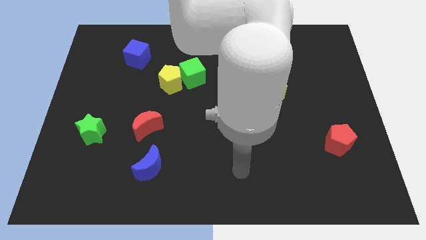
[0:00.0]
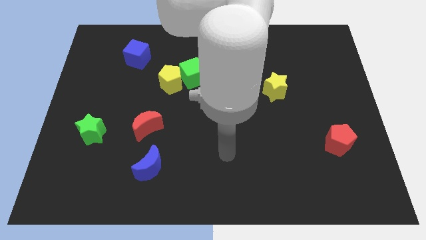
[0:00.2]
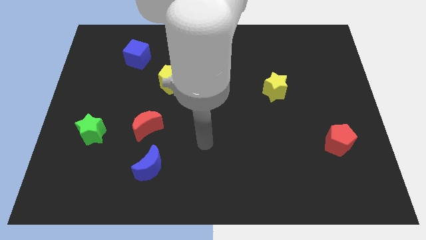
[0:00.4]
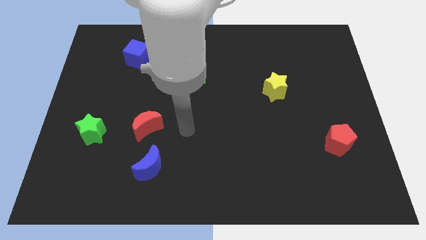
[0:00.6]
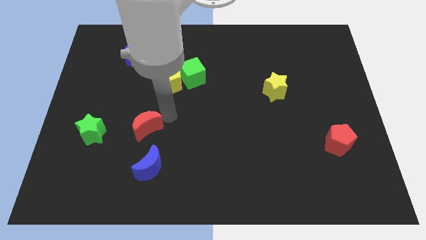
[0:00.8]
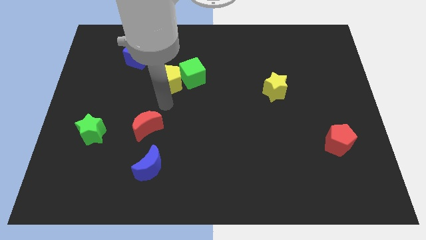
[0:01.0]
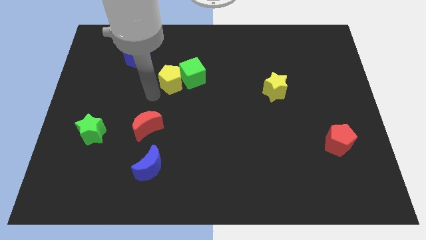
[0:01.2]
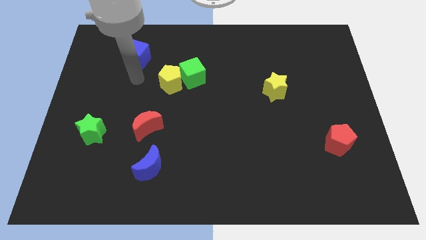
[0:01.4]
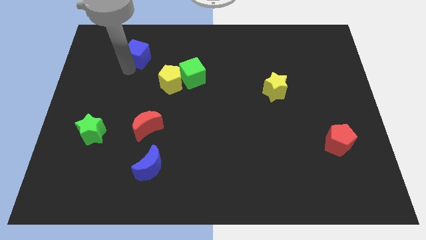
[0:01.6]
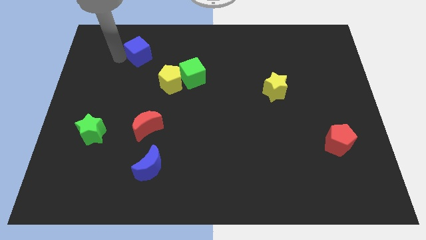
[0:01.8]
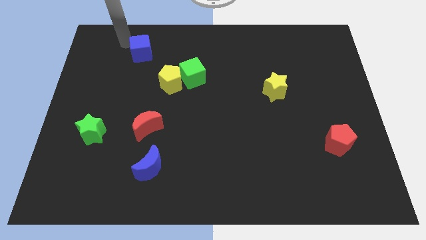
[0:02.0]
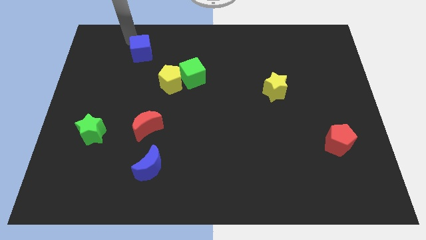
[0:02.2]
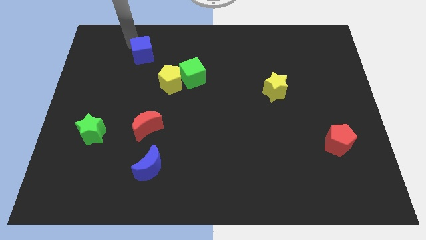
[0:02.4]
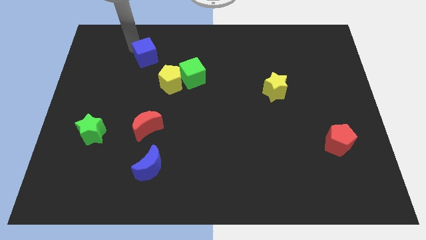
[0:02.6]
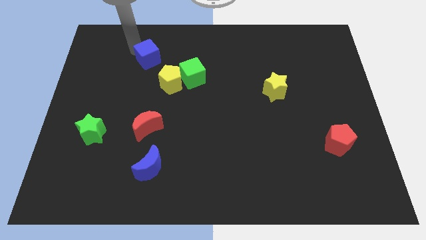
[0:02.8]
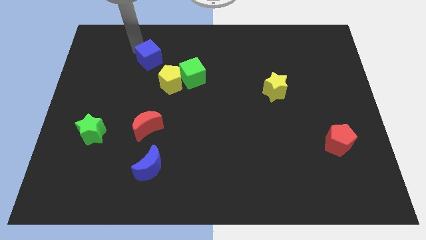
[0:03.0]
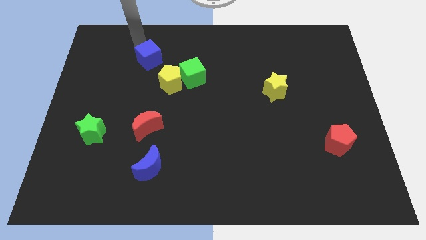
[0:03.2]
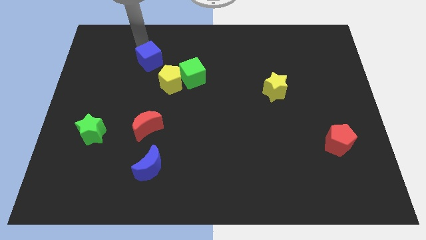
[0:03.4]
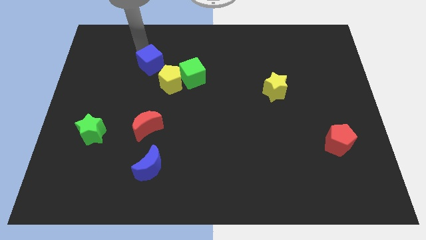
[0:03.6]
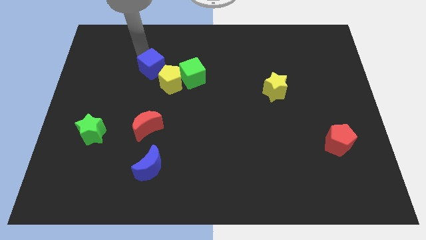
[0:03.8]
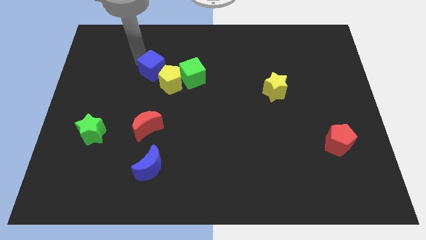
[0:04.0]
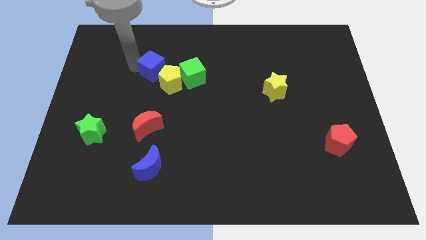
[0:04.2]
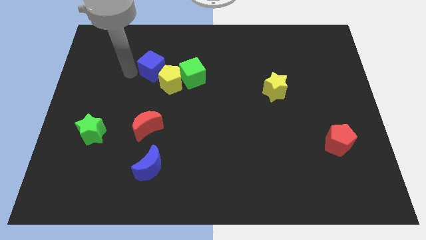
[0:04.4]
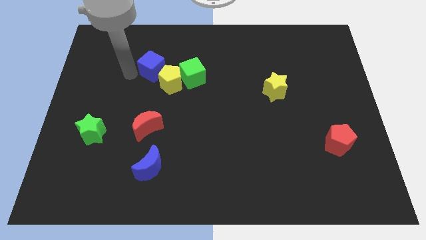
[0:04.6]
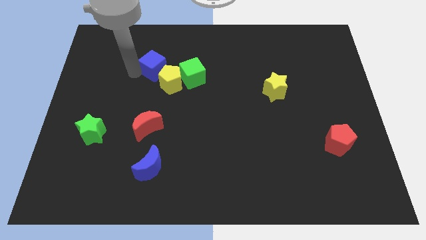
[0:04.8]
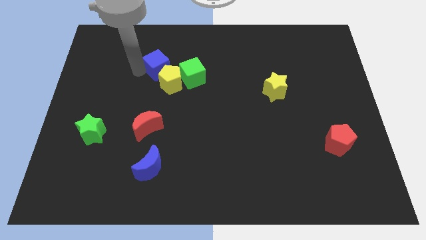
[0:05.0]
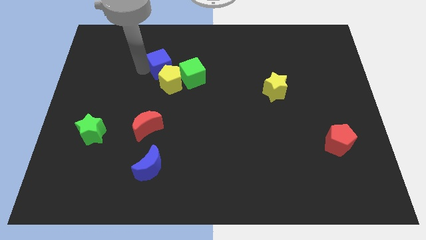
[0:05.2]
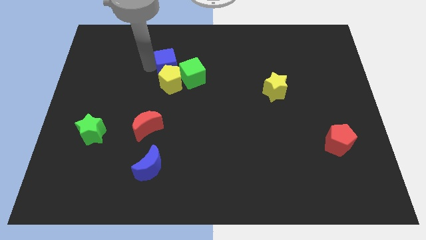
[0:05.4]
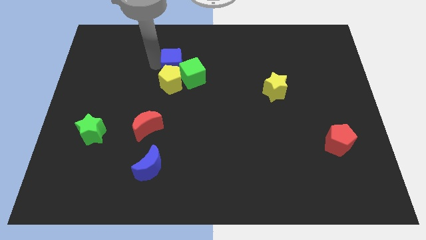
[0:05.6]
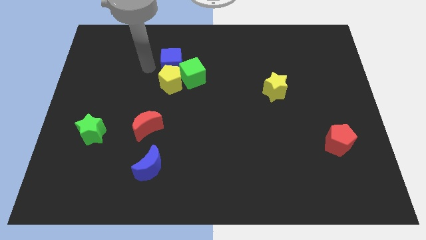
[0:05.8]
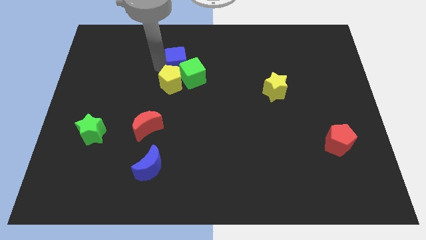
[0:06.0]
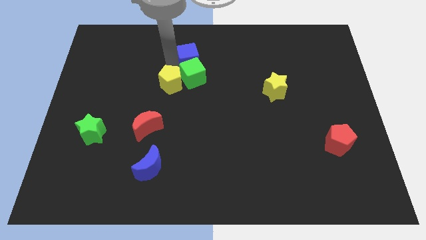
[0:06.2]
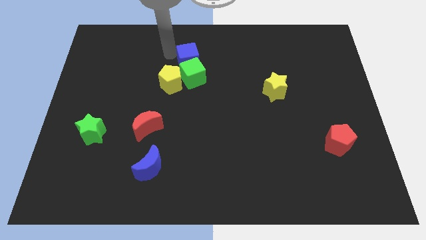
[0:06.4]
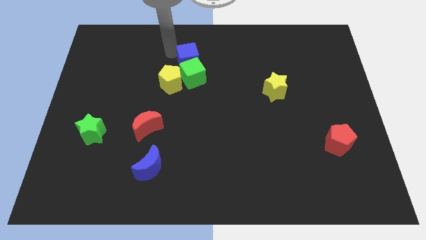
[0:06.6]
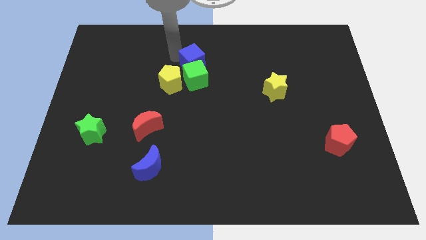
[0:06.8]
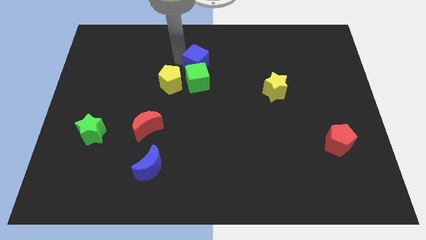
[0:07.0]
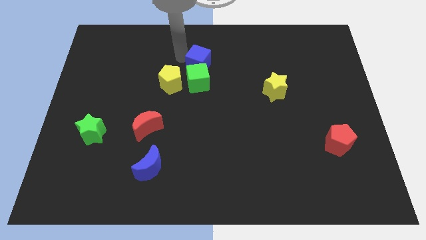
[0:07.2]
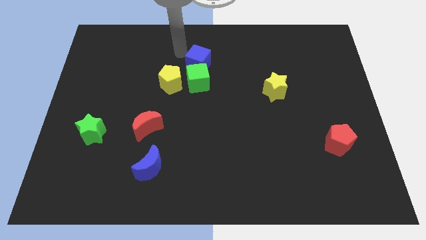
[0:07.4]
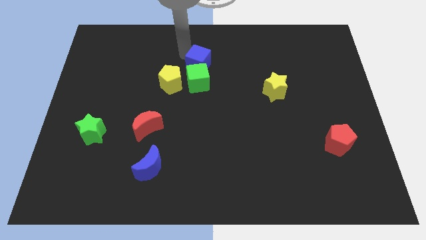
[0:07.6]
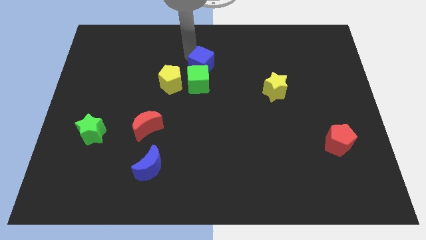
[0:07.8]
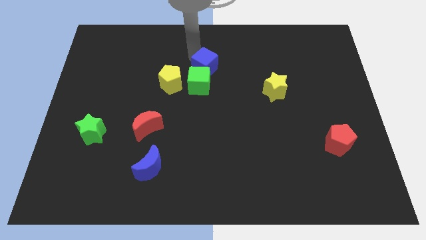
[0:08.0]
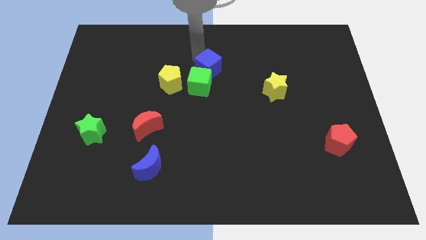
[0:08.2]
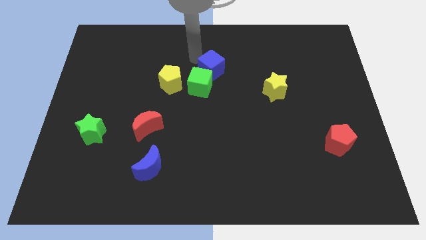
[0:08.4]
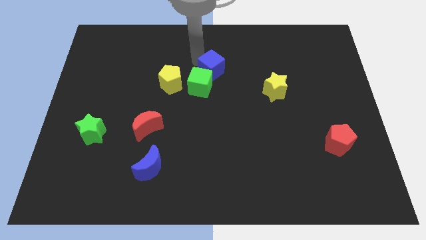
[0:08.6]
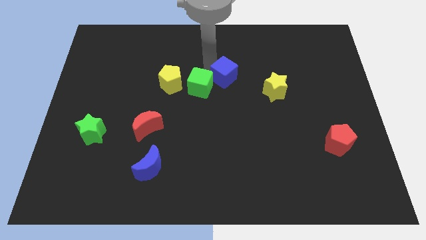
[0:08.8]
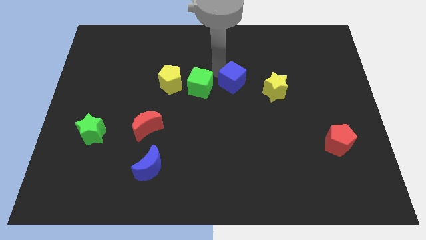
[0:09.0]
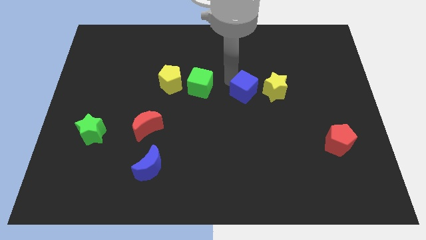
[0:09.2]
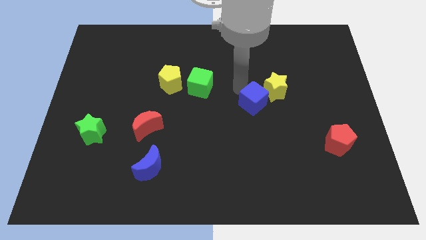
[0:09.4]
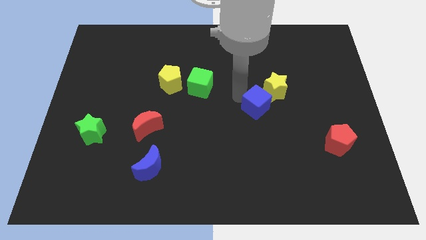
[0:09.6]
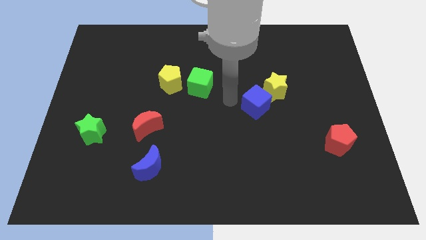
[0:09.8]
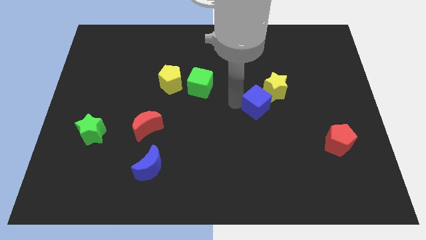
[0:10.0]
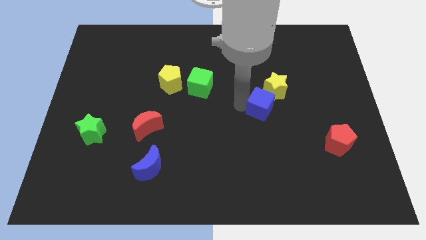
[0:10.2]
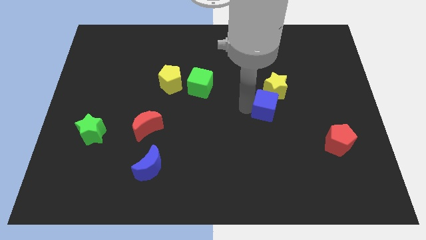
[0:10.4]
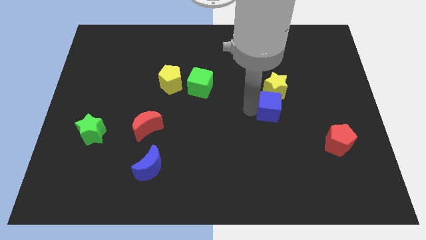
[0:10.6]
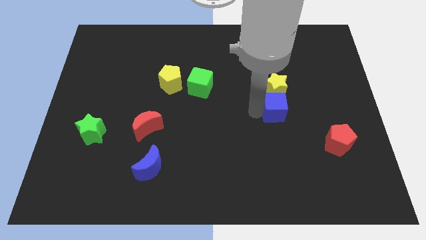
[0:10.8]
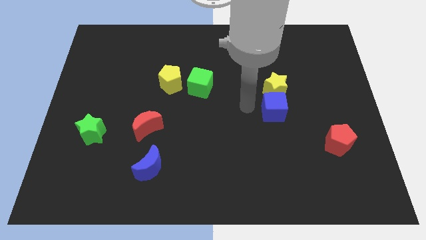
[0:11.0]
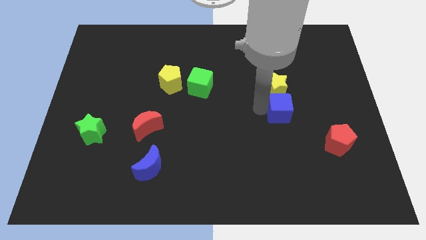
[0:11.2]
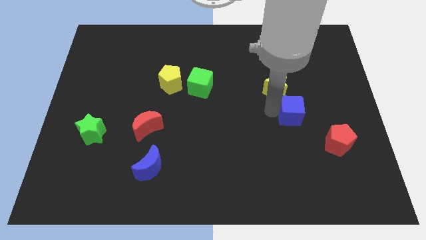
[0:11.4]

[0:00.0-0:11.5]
move the blue cube to the top left of the red pentagon

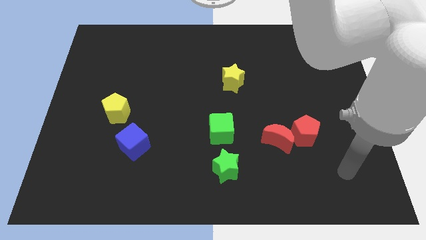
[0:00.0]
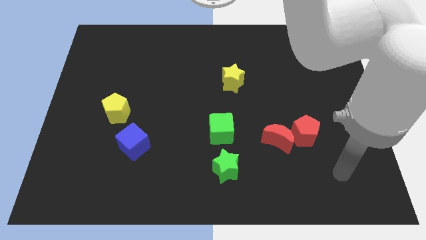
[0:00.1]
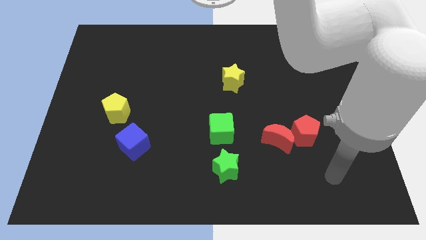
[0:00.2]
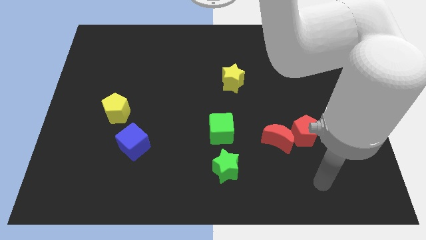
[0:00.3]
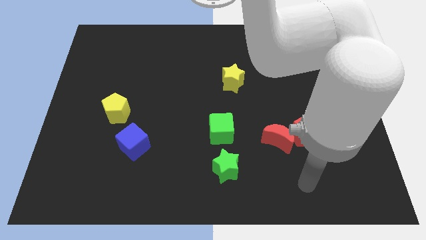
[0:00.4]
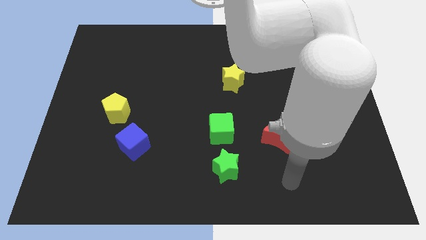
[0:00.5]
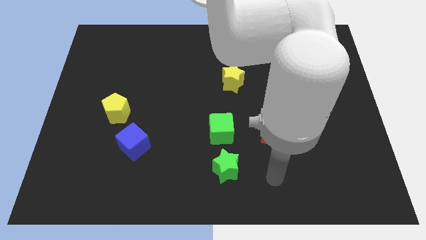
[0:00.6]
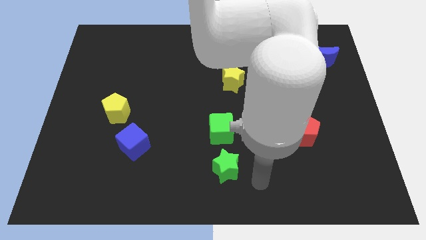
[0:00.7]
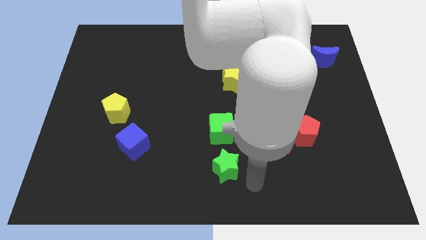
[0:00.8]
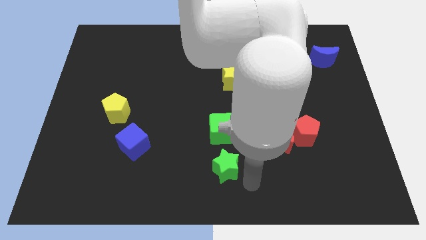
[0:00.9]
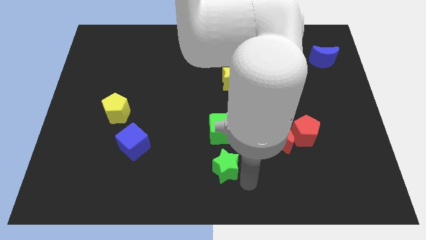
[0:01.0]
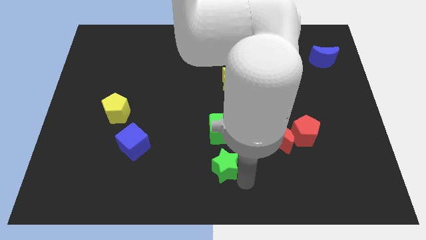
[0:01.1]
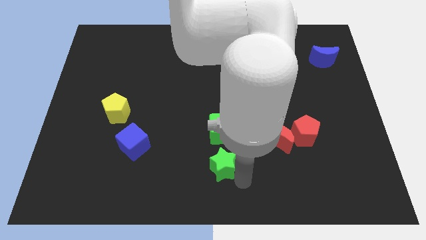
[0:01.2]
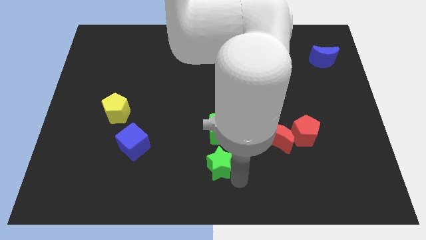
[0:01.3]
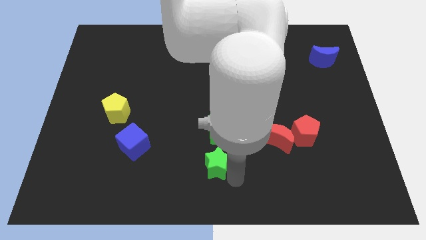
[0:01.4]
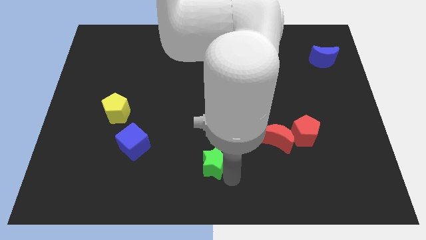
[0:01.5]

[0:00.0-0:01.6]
slide the green star diagonally down and to the left of the green cube
